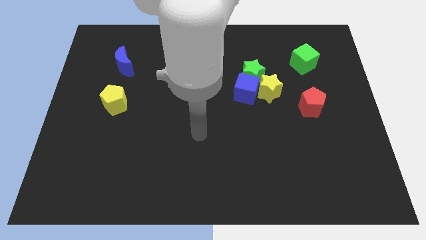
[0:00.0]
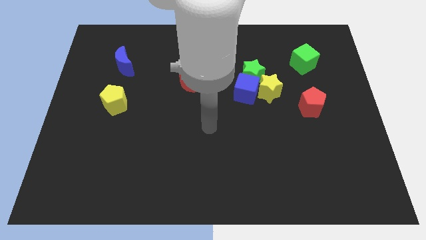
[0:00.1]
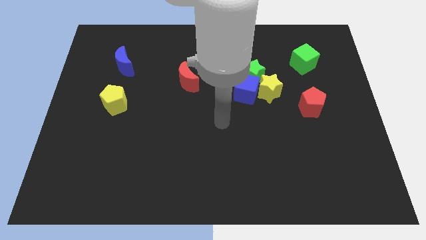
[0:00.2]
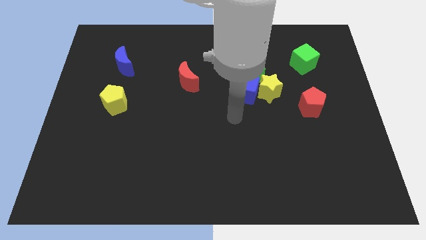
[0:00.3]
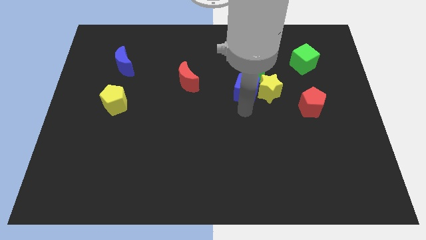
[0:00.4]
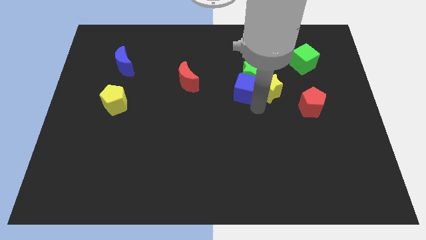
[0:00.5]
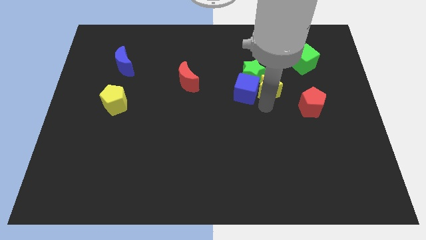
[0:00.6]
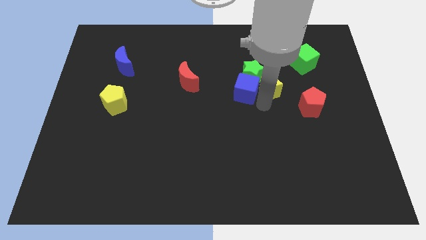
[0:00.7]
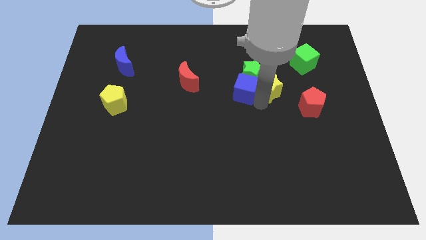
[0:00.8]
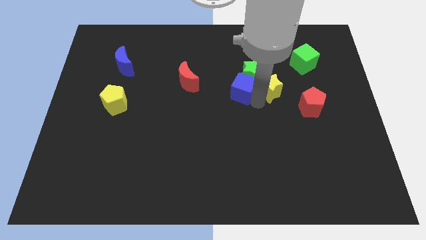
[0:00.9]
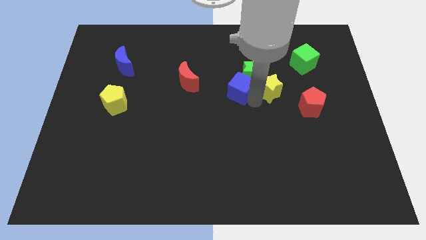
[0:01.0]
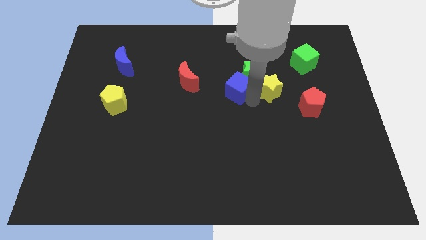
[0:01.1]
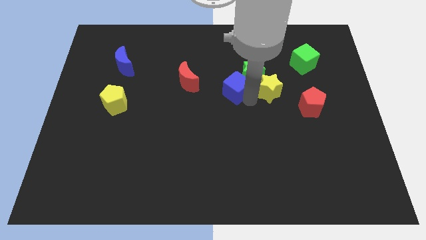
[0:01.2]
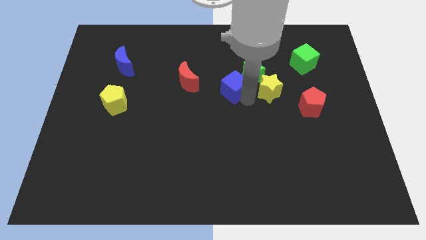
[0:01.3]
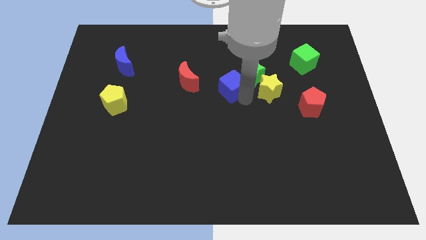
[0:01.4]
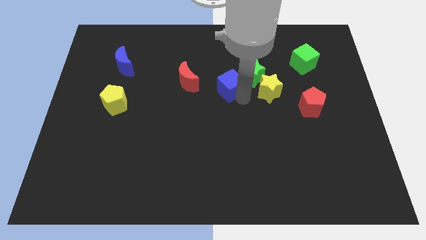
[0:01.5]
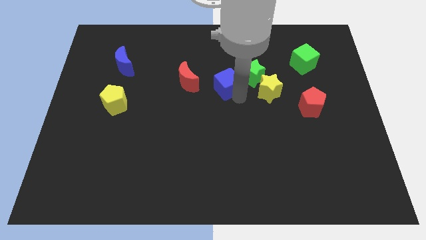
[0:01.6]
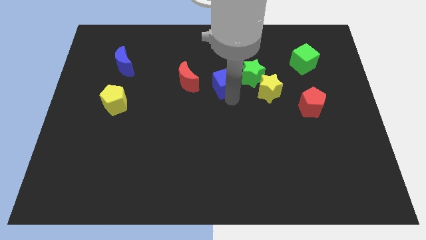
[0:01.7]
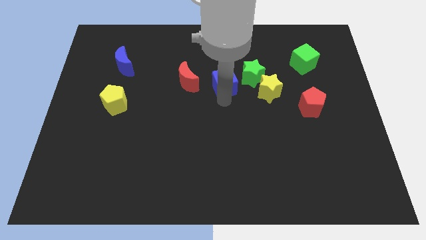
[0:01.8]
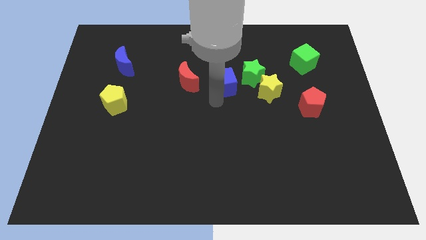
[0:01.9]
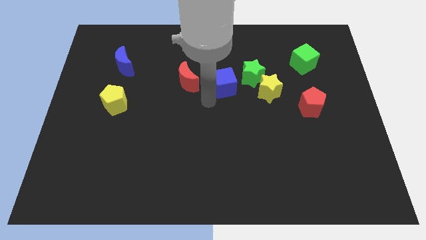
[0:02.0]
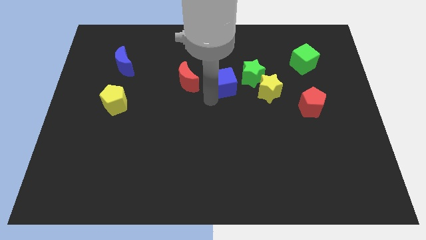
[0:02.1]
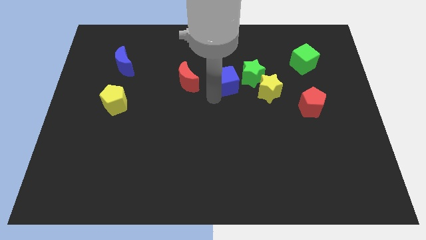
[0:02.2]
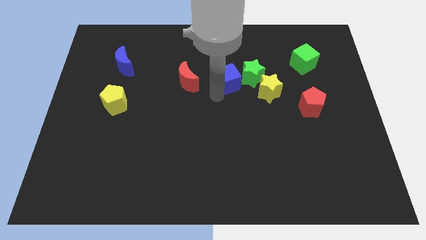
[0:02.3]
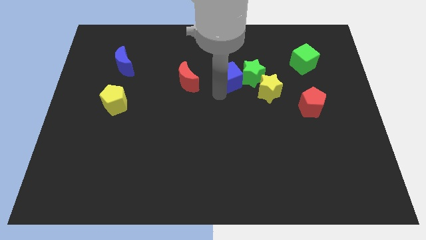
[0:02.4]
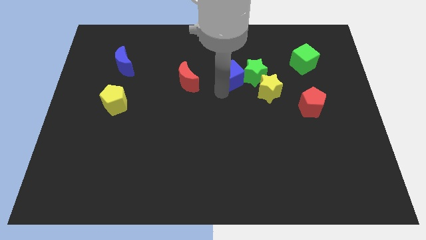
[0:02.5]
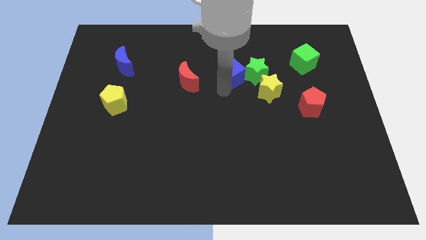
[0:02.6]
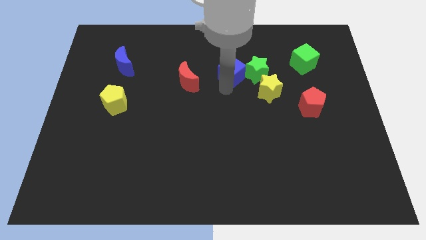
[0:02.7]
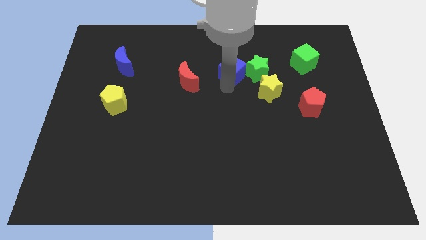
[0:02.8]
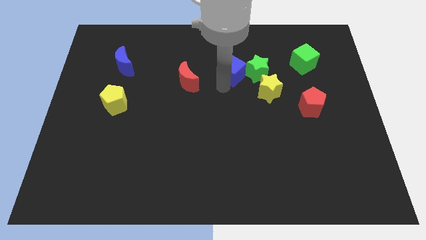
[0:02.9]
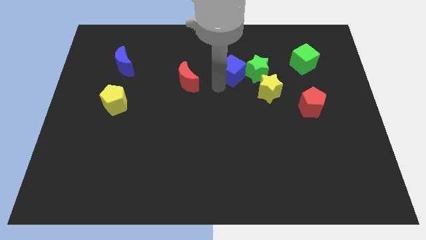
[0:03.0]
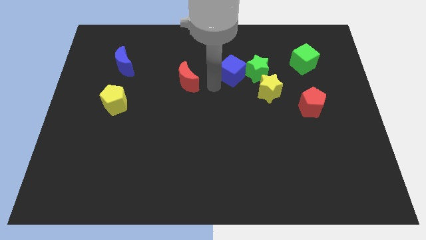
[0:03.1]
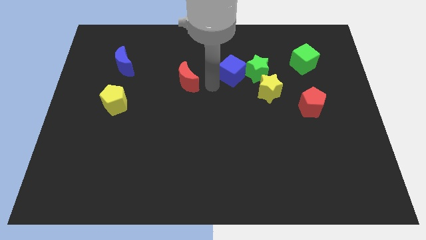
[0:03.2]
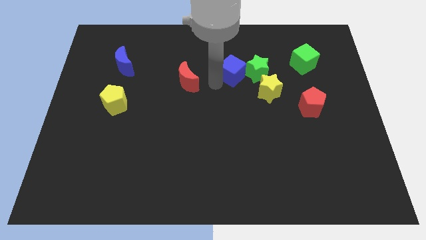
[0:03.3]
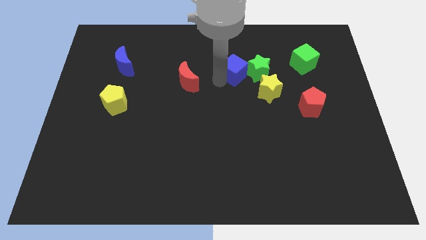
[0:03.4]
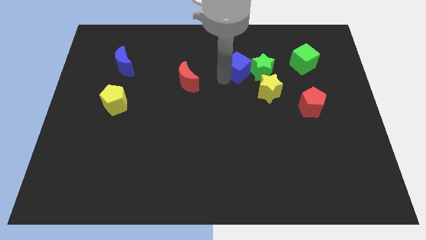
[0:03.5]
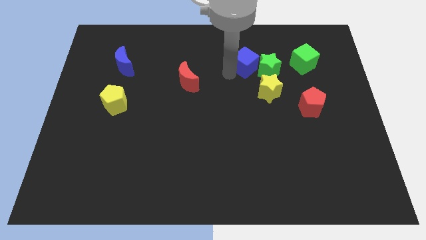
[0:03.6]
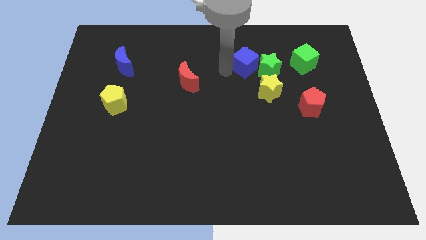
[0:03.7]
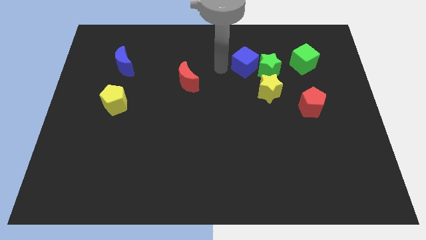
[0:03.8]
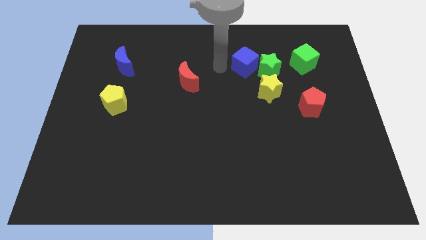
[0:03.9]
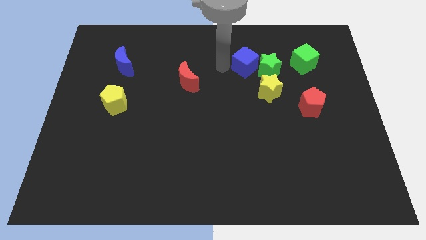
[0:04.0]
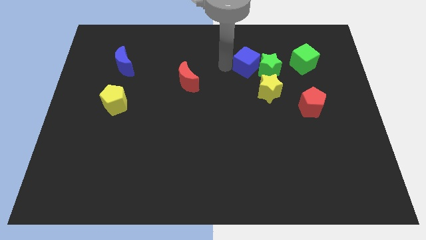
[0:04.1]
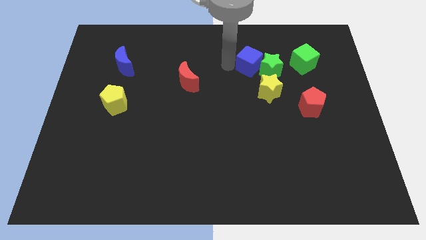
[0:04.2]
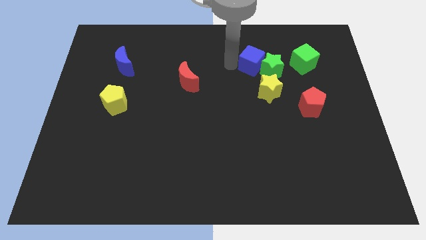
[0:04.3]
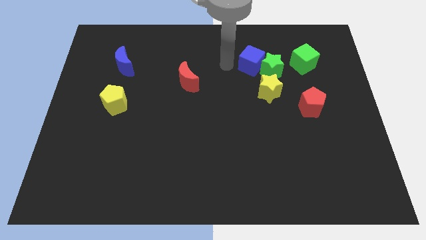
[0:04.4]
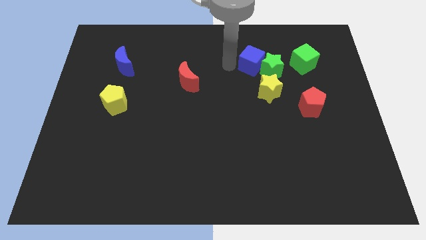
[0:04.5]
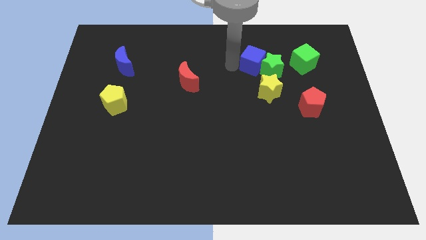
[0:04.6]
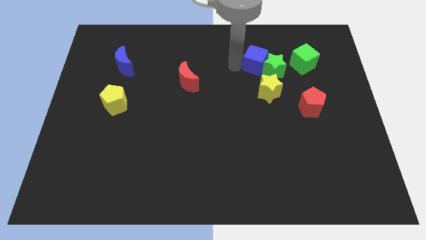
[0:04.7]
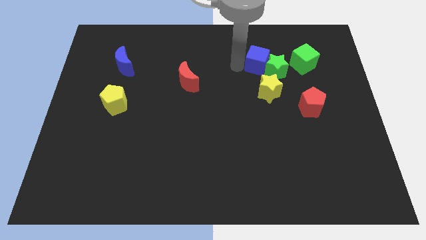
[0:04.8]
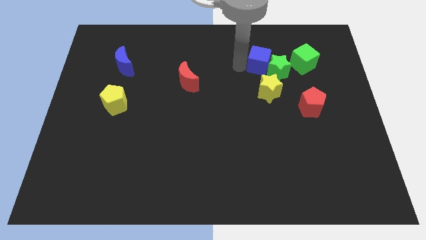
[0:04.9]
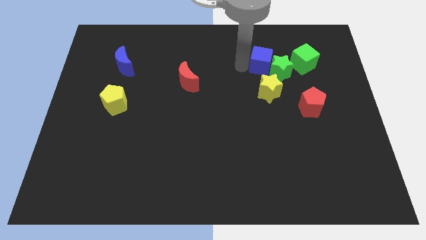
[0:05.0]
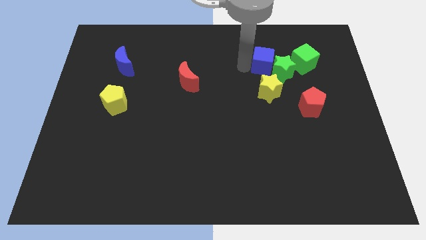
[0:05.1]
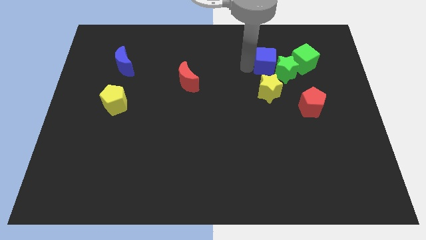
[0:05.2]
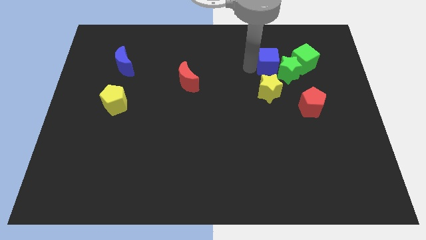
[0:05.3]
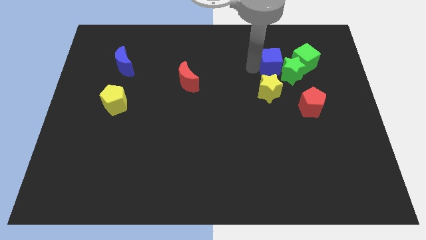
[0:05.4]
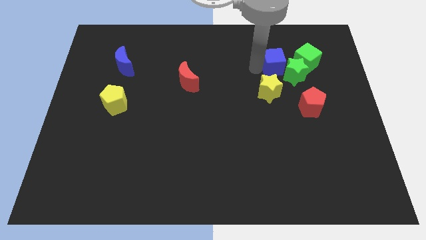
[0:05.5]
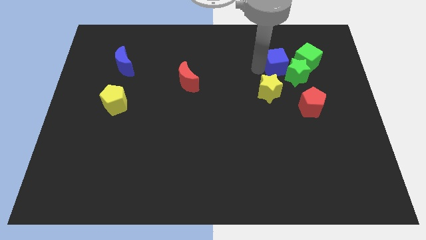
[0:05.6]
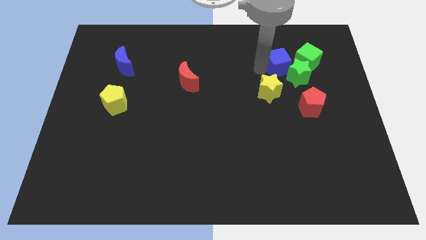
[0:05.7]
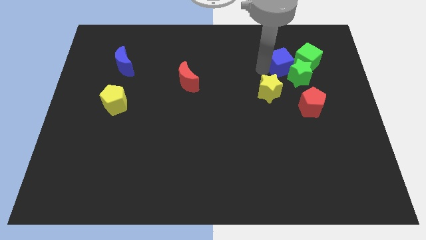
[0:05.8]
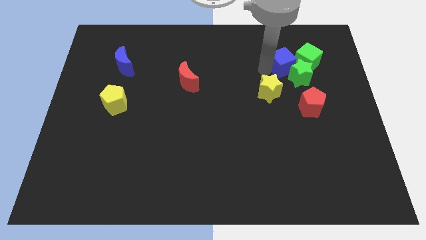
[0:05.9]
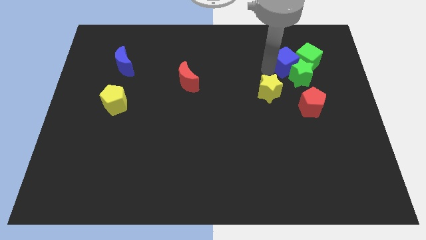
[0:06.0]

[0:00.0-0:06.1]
put the blue cube to the green cube

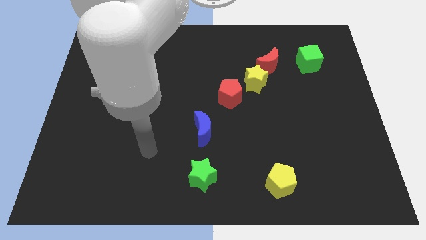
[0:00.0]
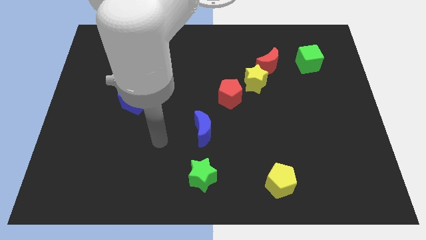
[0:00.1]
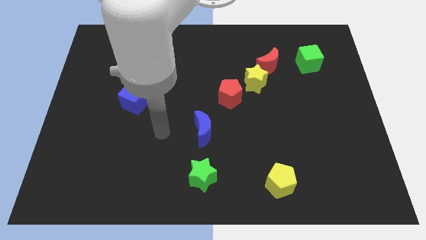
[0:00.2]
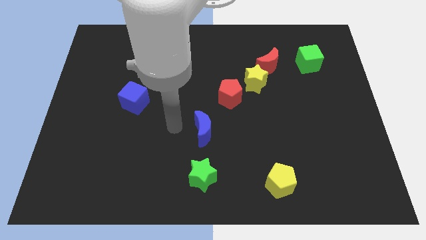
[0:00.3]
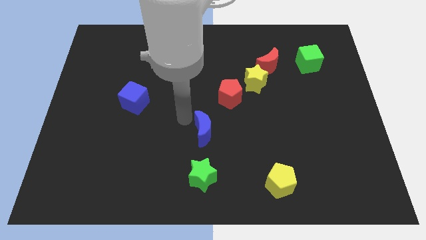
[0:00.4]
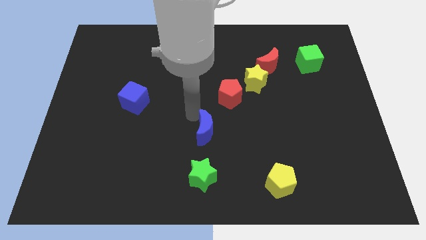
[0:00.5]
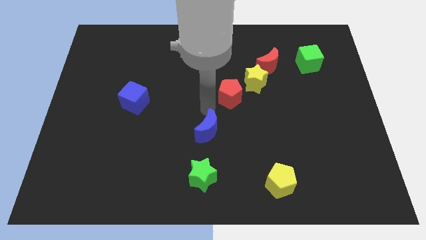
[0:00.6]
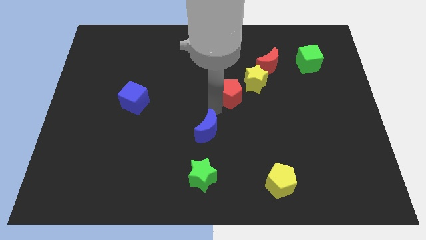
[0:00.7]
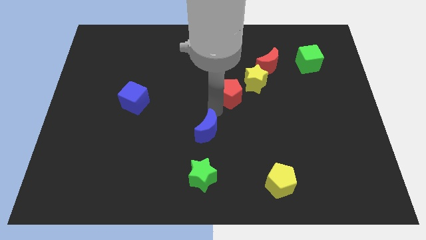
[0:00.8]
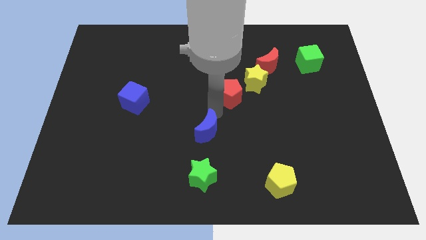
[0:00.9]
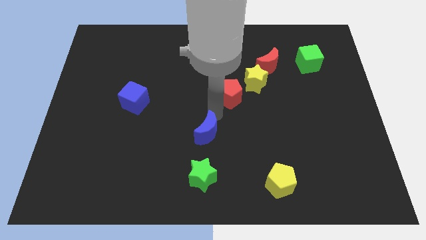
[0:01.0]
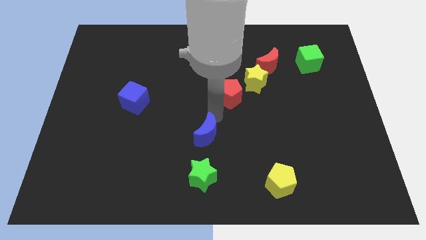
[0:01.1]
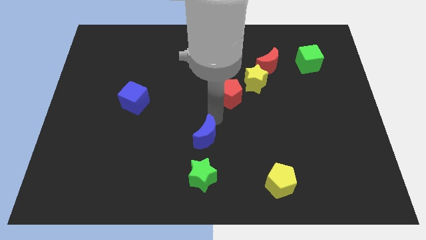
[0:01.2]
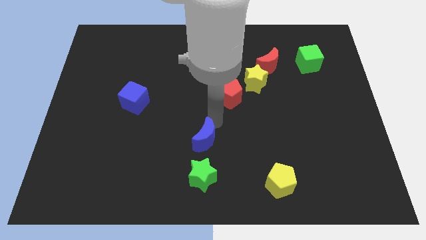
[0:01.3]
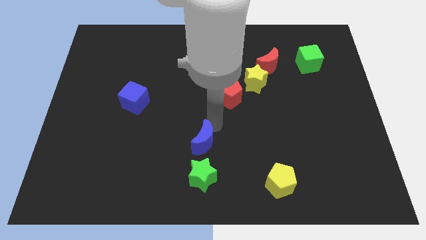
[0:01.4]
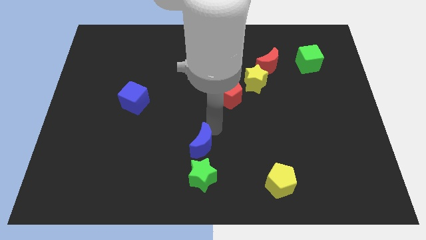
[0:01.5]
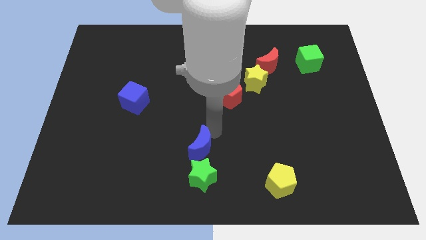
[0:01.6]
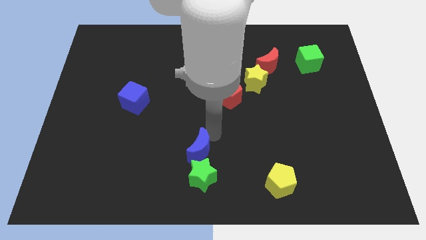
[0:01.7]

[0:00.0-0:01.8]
slide the blue moon close to the green star
